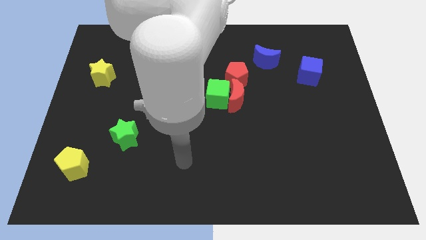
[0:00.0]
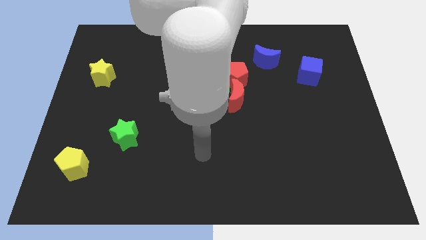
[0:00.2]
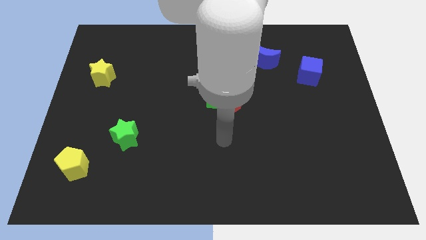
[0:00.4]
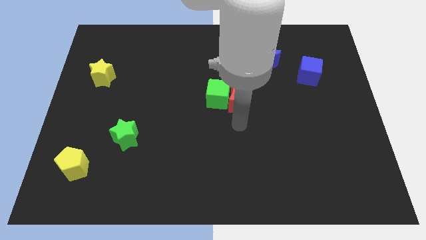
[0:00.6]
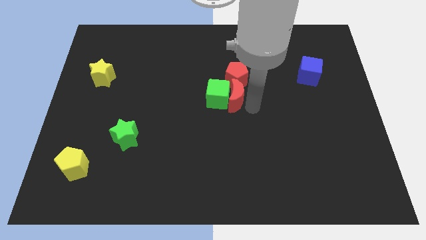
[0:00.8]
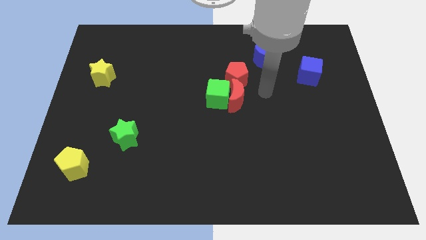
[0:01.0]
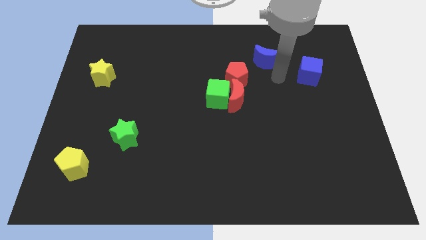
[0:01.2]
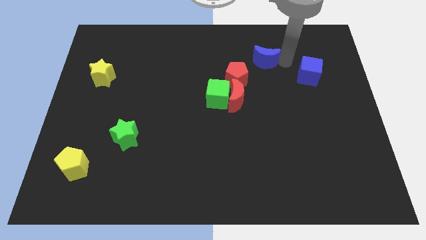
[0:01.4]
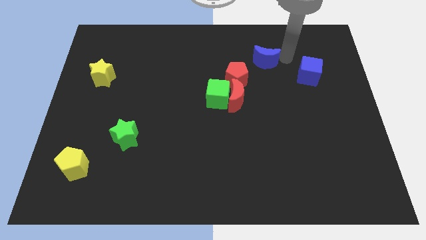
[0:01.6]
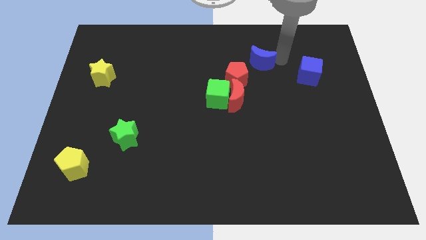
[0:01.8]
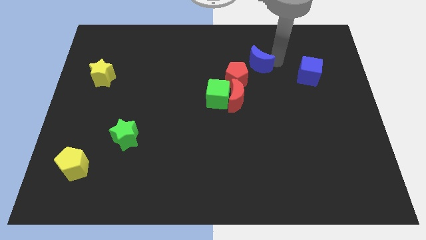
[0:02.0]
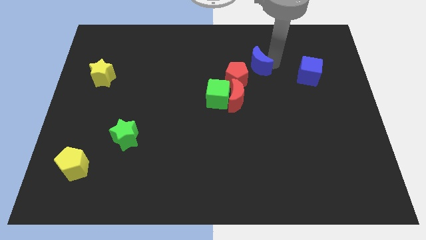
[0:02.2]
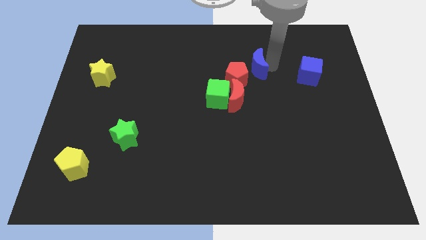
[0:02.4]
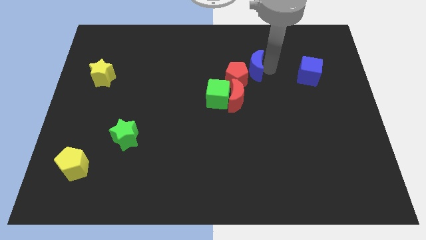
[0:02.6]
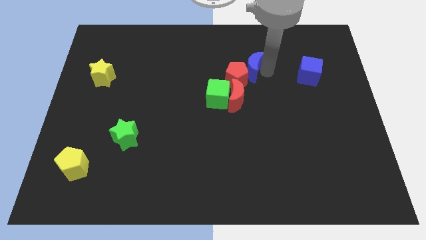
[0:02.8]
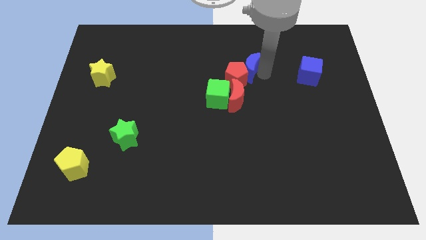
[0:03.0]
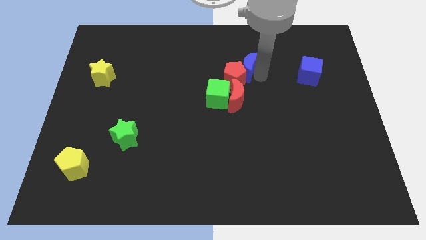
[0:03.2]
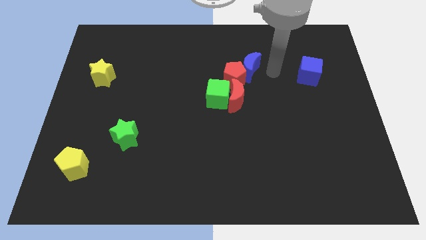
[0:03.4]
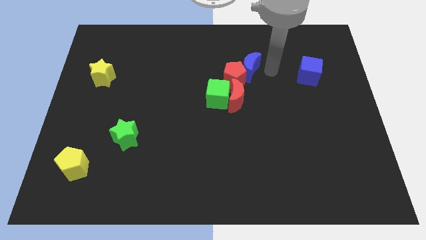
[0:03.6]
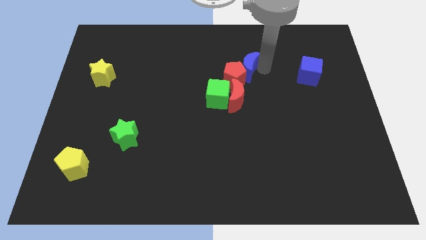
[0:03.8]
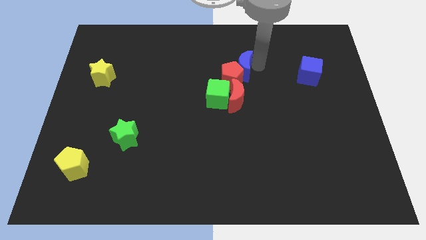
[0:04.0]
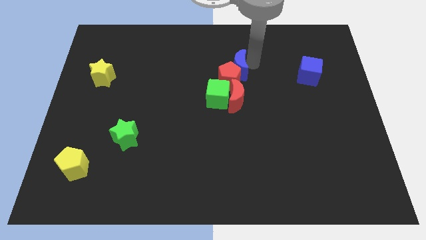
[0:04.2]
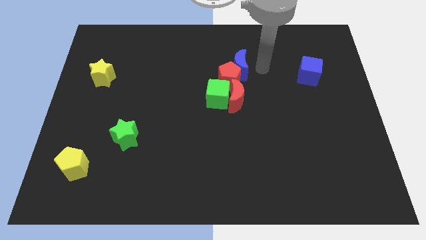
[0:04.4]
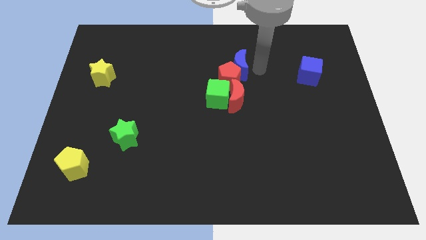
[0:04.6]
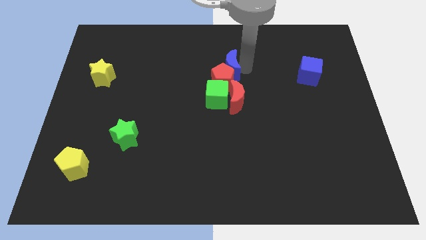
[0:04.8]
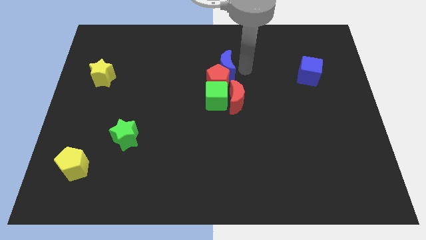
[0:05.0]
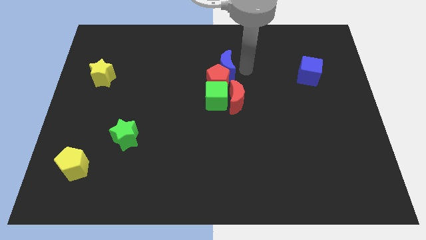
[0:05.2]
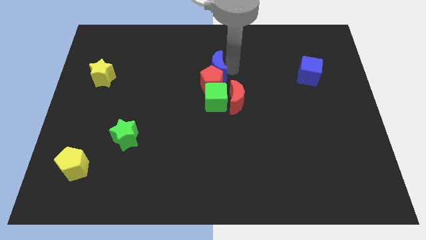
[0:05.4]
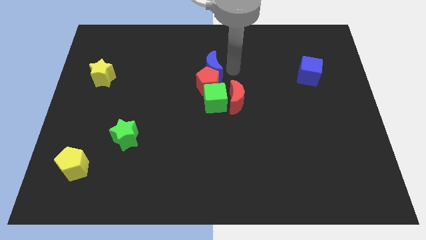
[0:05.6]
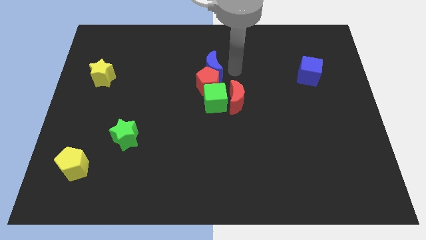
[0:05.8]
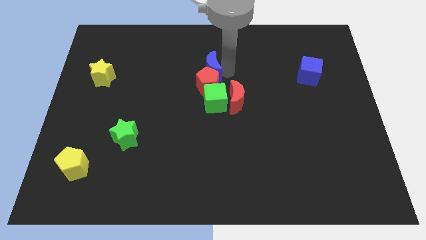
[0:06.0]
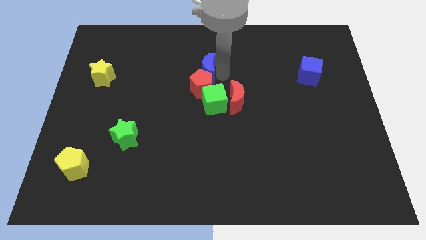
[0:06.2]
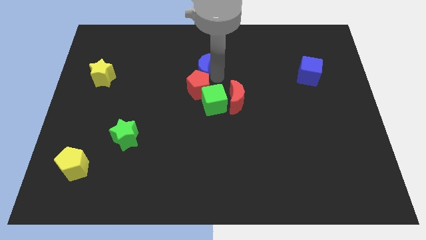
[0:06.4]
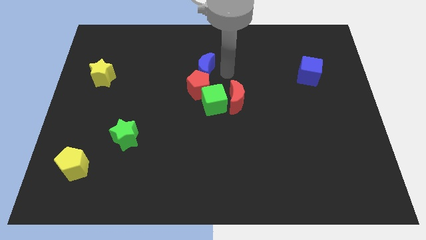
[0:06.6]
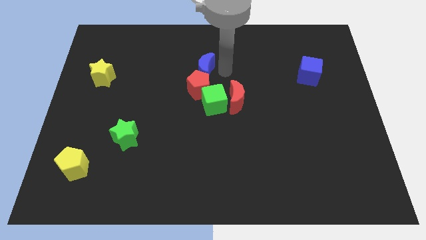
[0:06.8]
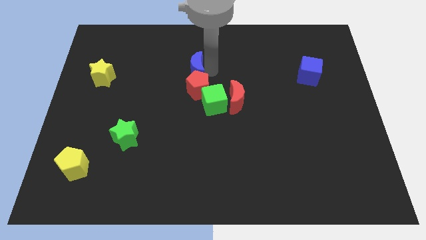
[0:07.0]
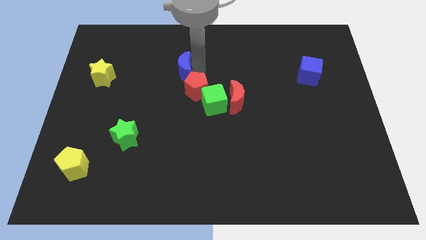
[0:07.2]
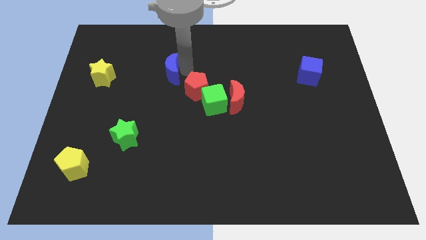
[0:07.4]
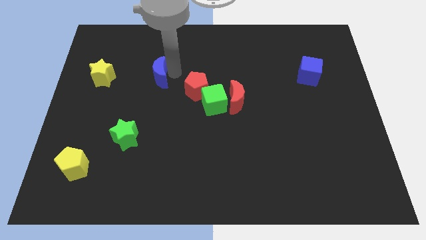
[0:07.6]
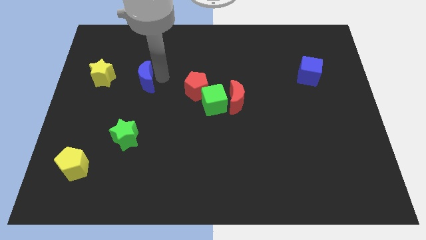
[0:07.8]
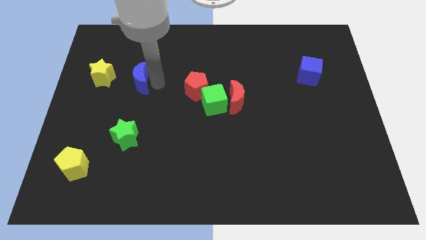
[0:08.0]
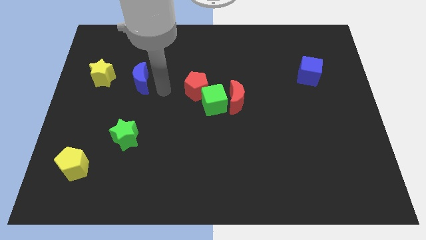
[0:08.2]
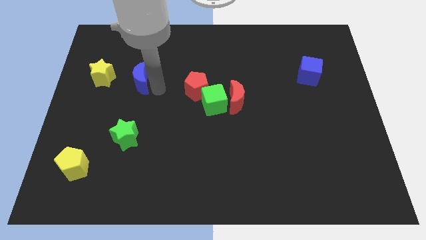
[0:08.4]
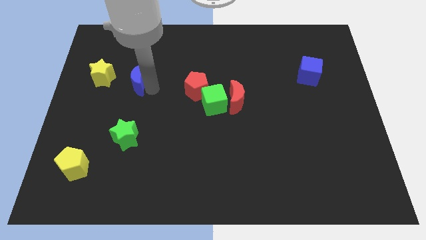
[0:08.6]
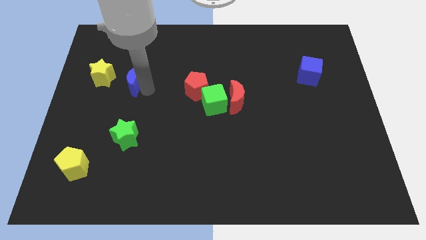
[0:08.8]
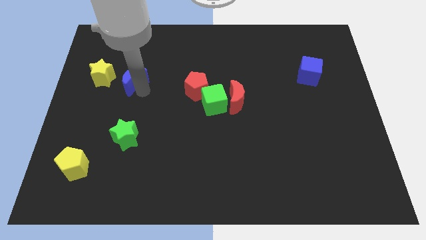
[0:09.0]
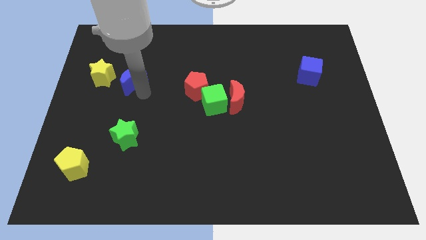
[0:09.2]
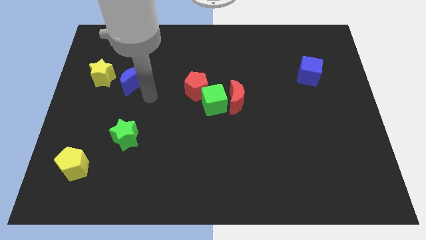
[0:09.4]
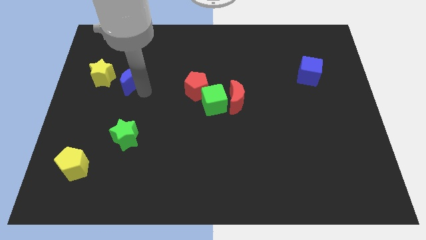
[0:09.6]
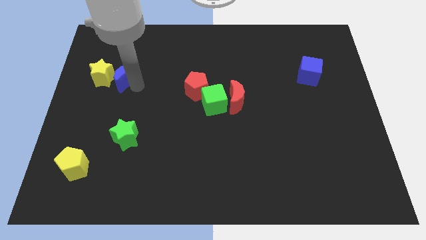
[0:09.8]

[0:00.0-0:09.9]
put the blue moon towards the yellow star

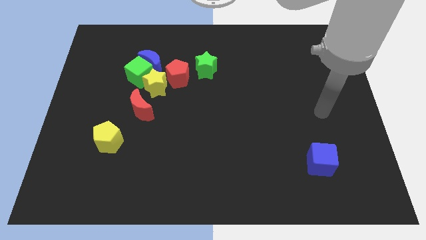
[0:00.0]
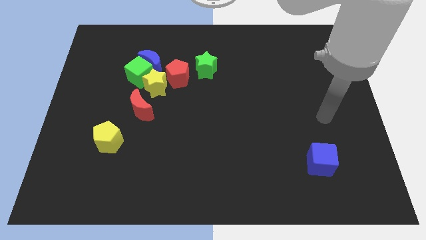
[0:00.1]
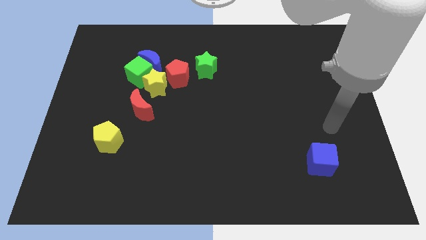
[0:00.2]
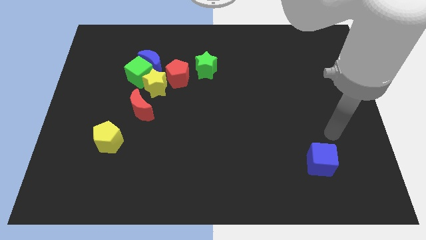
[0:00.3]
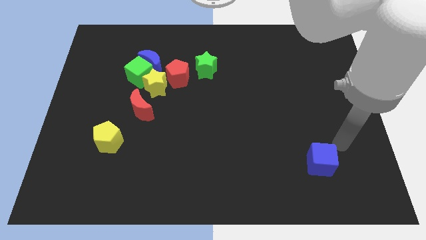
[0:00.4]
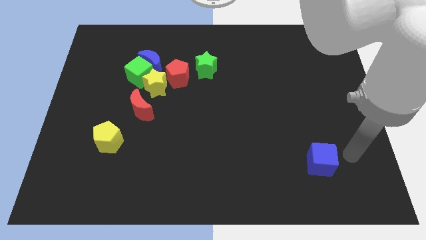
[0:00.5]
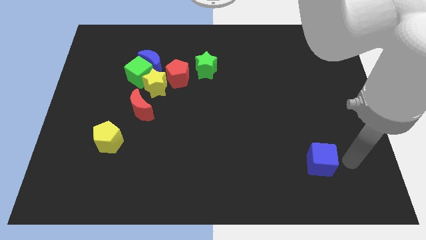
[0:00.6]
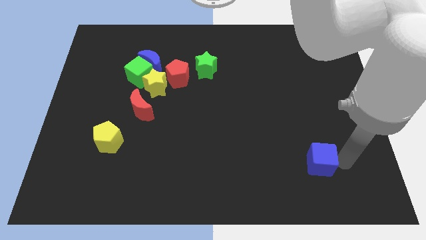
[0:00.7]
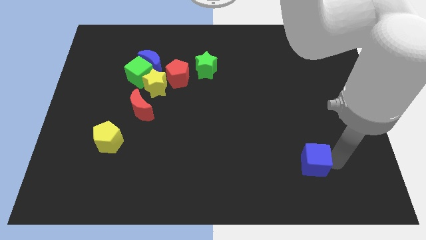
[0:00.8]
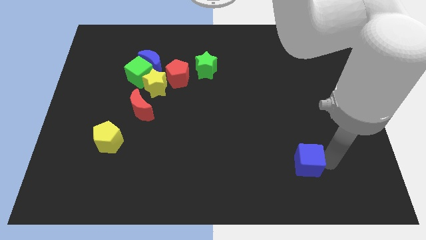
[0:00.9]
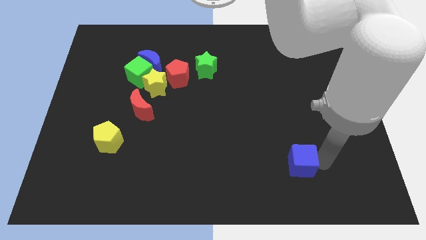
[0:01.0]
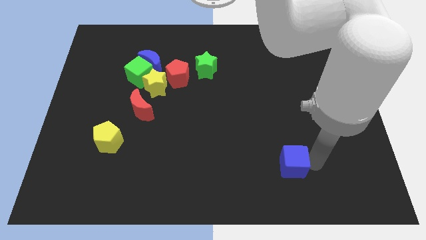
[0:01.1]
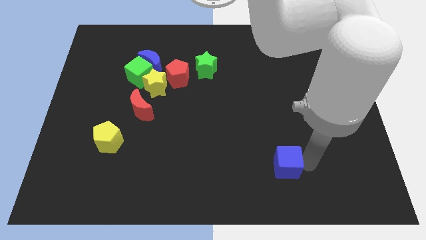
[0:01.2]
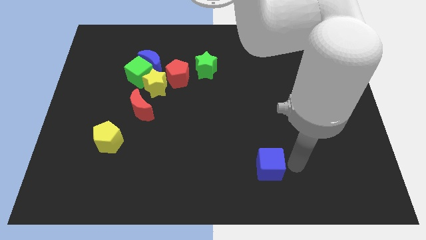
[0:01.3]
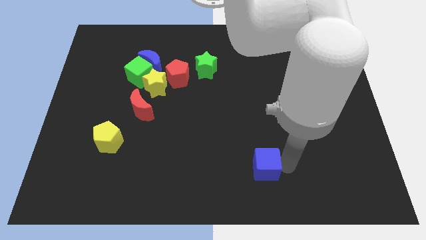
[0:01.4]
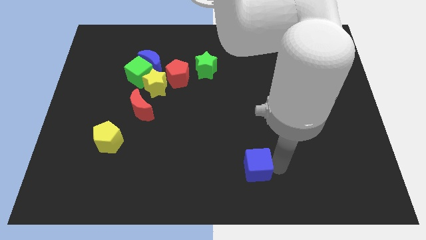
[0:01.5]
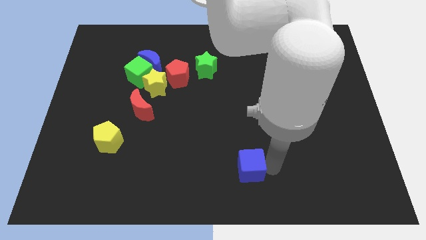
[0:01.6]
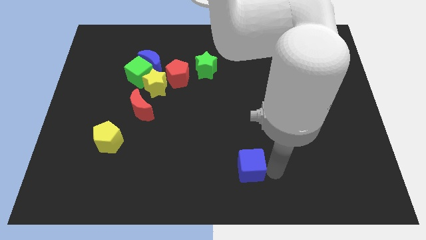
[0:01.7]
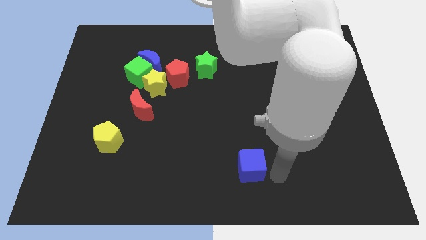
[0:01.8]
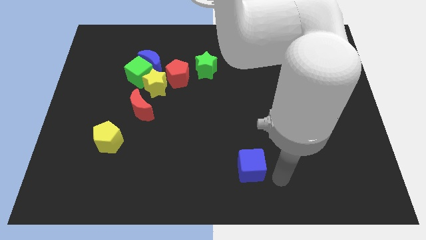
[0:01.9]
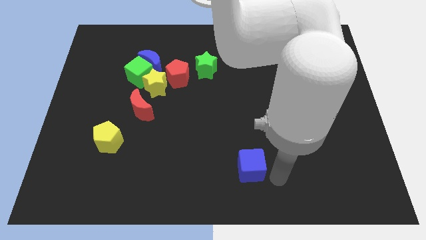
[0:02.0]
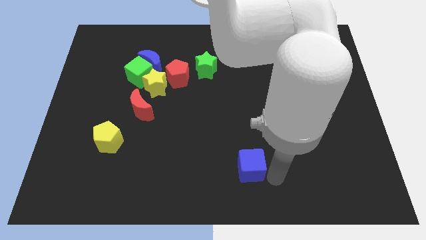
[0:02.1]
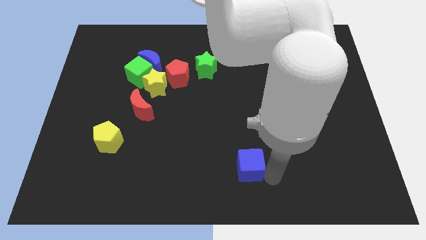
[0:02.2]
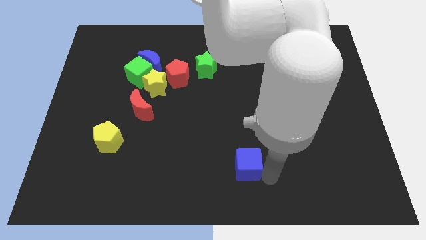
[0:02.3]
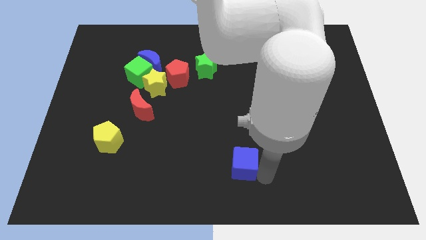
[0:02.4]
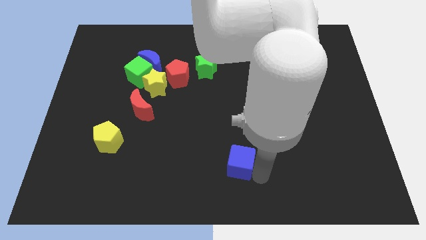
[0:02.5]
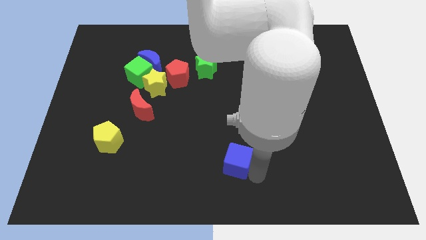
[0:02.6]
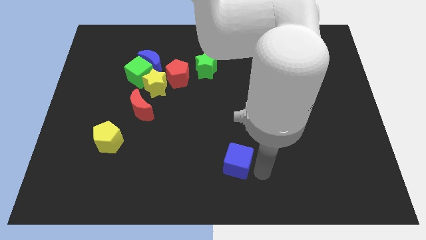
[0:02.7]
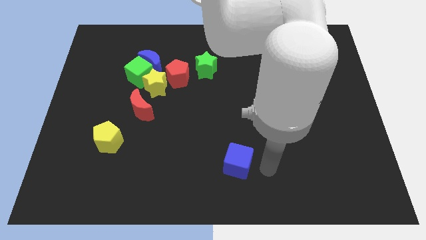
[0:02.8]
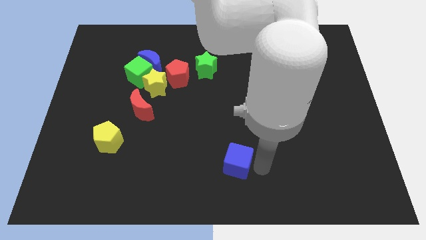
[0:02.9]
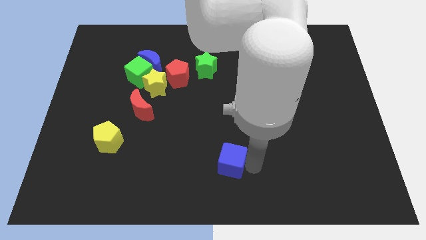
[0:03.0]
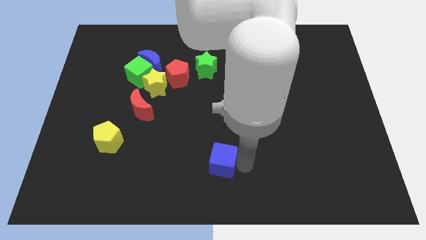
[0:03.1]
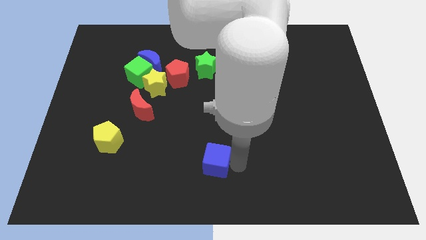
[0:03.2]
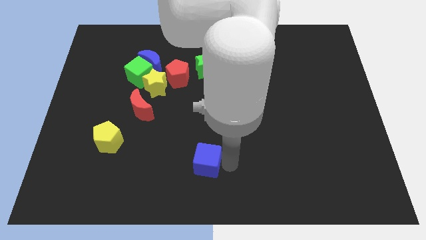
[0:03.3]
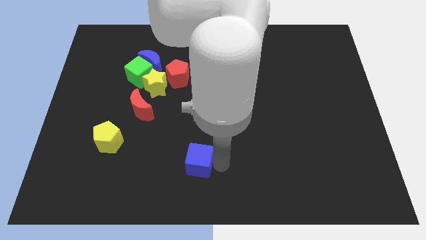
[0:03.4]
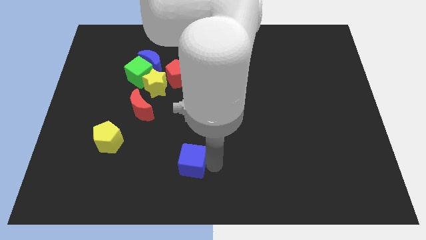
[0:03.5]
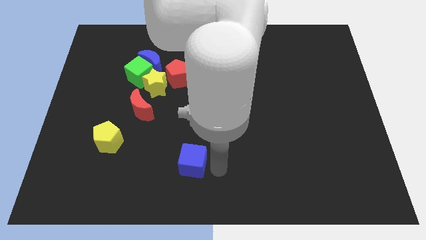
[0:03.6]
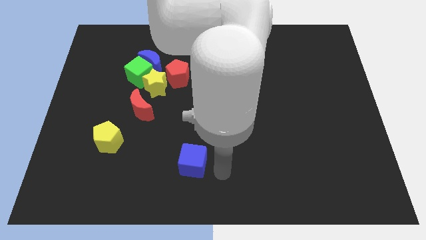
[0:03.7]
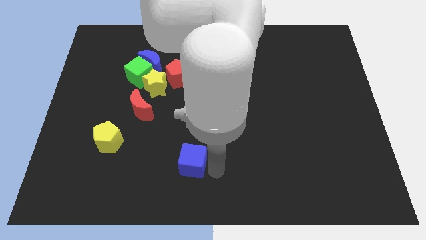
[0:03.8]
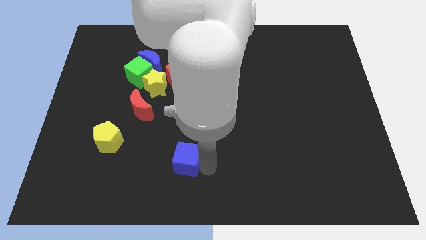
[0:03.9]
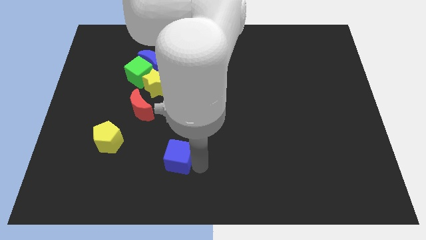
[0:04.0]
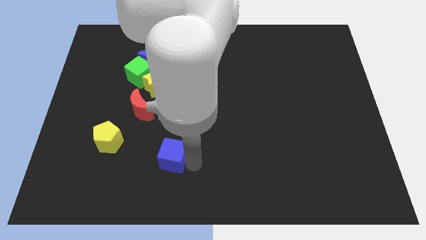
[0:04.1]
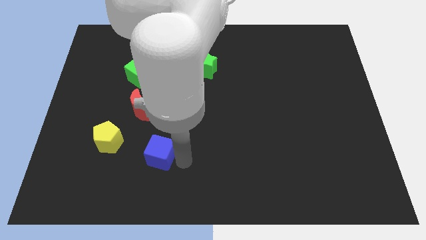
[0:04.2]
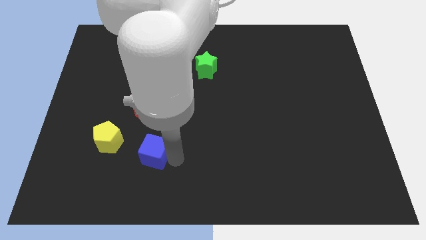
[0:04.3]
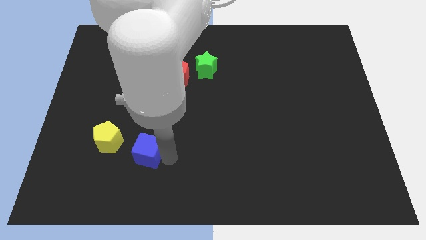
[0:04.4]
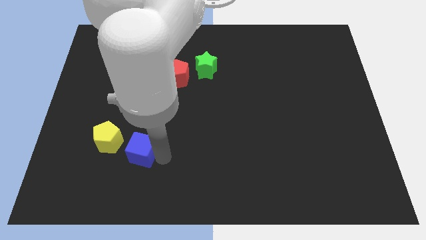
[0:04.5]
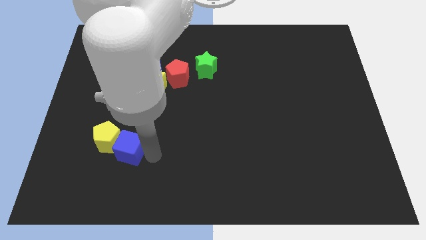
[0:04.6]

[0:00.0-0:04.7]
slide the blue cube towards the yellow pentagon
